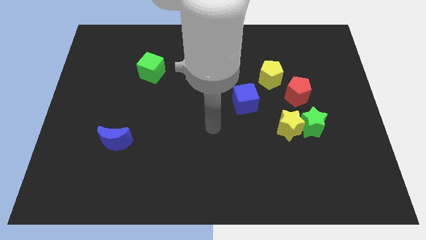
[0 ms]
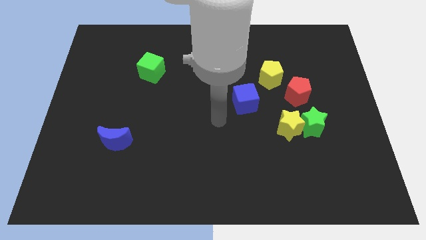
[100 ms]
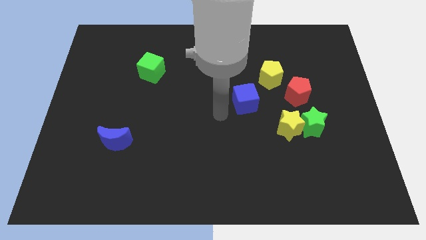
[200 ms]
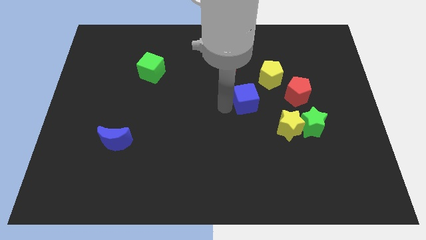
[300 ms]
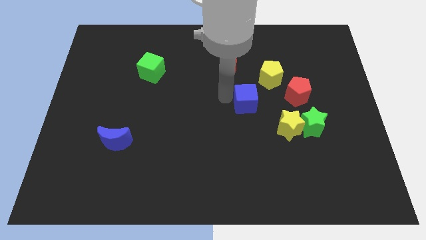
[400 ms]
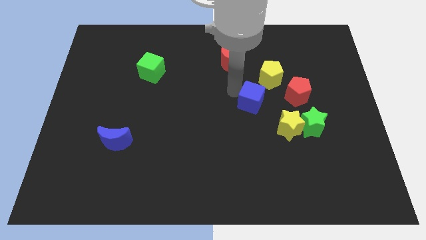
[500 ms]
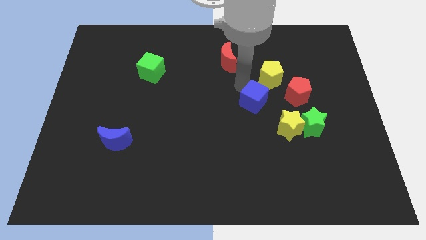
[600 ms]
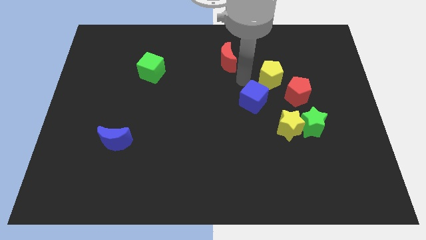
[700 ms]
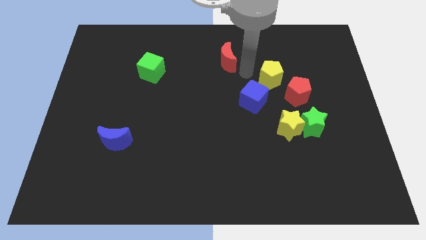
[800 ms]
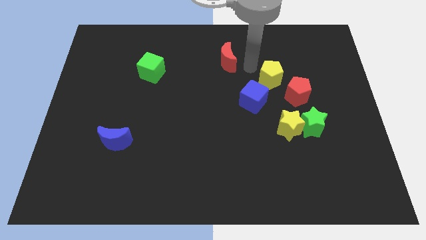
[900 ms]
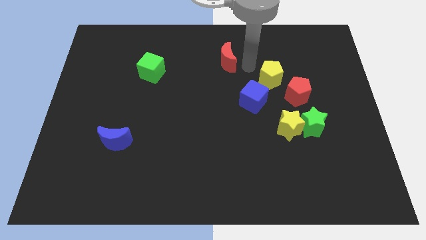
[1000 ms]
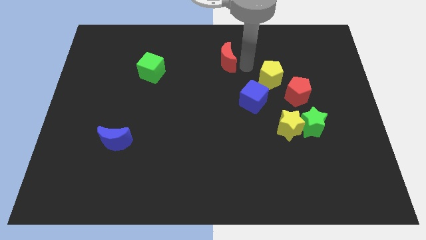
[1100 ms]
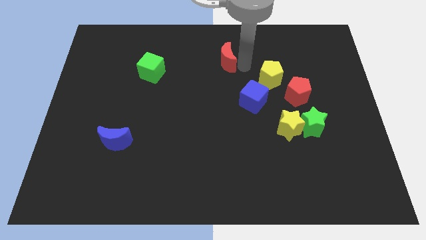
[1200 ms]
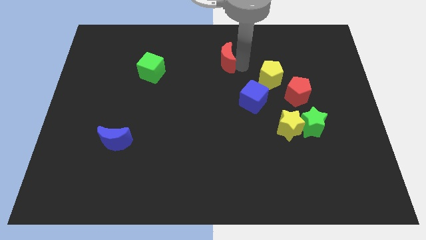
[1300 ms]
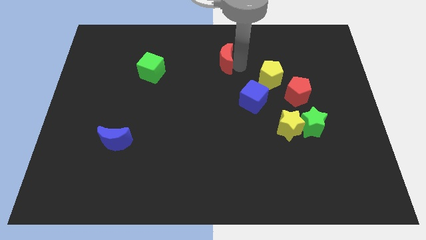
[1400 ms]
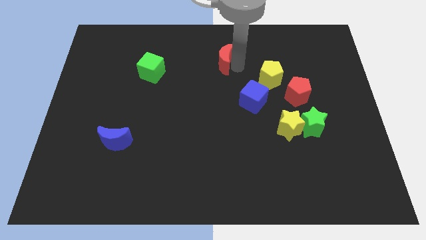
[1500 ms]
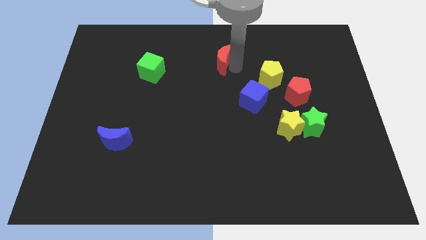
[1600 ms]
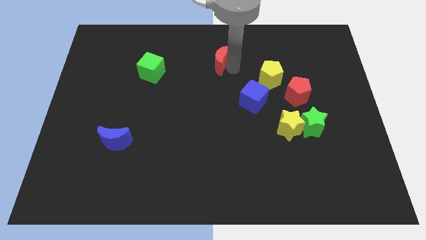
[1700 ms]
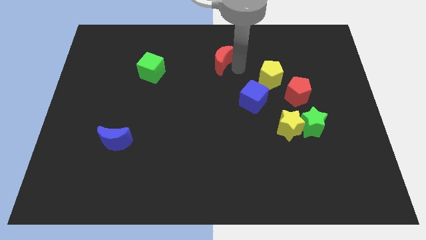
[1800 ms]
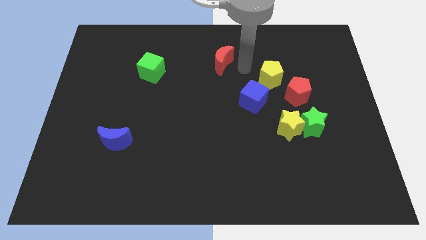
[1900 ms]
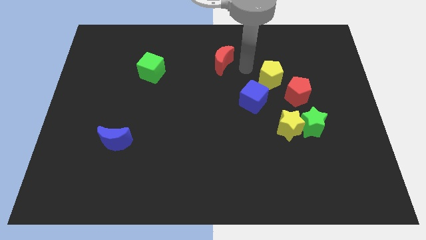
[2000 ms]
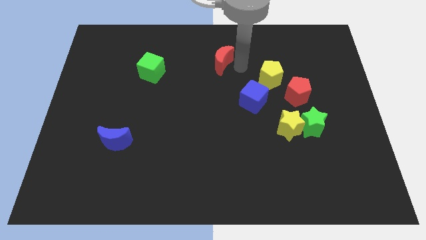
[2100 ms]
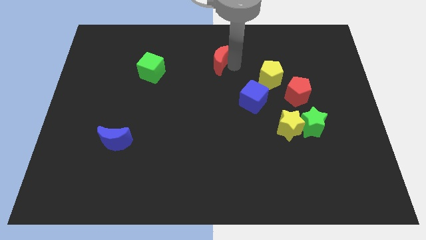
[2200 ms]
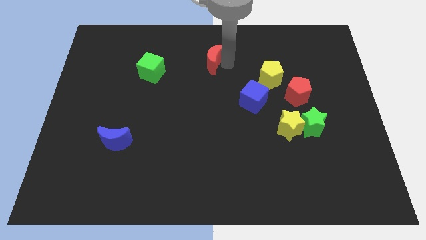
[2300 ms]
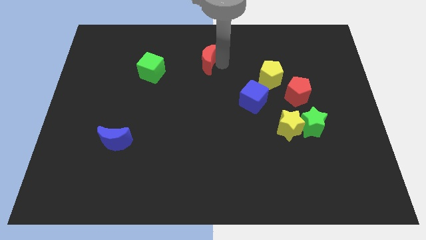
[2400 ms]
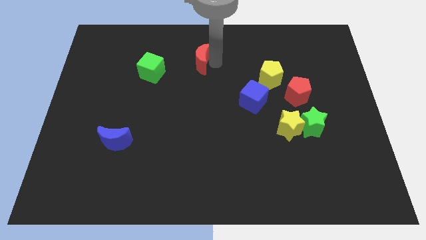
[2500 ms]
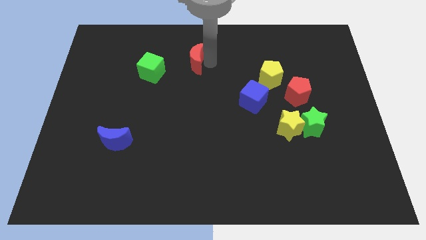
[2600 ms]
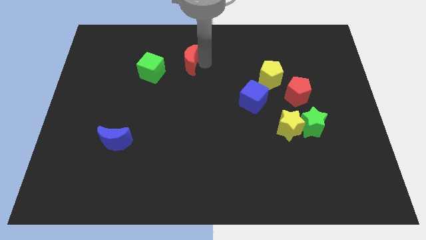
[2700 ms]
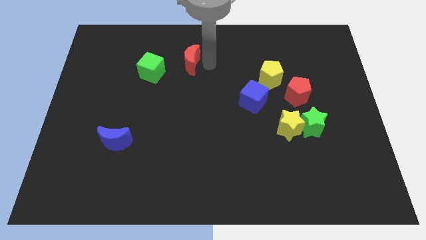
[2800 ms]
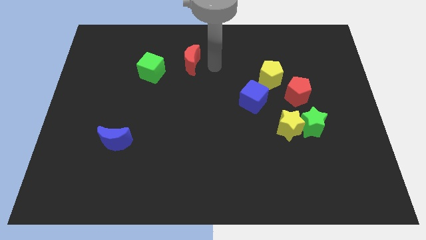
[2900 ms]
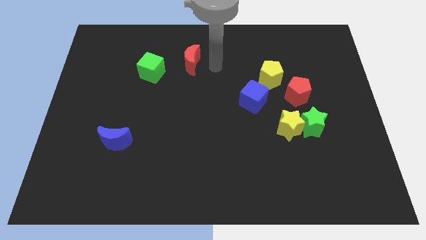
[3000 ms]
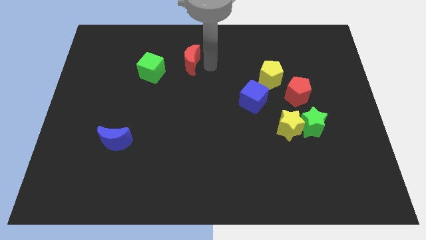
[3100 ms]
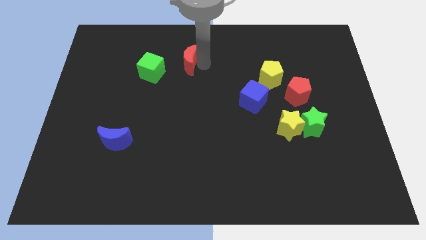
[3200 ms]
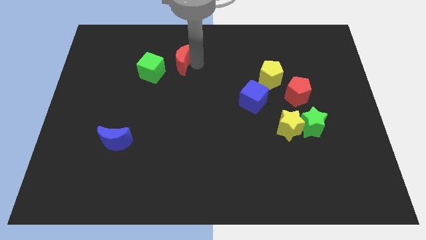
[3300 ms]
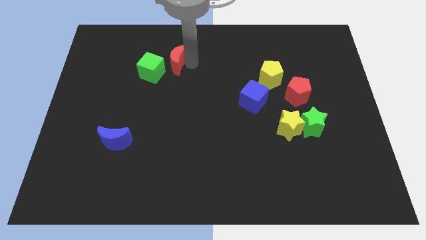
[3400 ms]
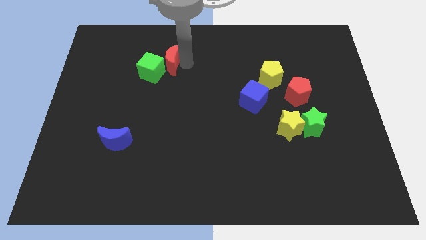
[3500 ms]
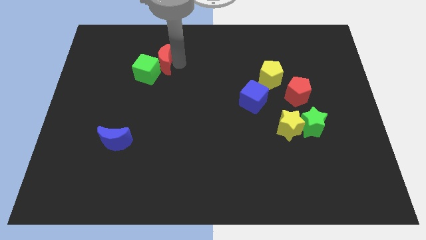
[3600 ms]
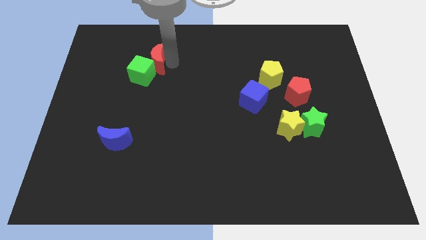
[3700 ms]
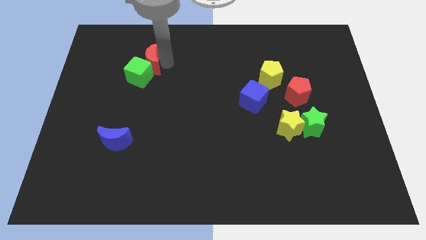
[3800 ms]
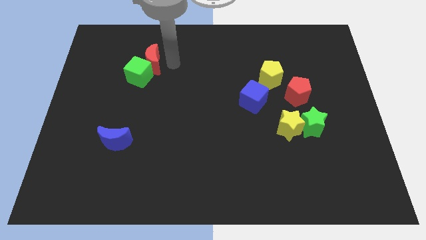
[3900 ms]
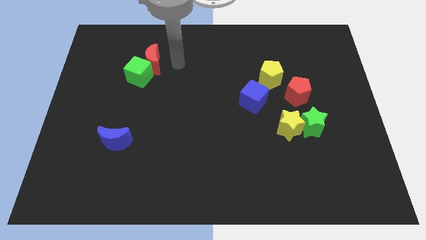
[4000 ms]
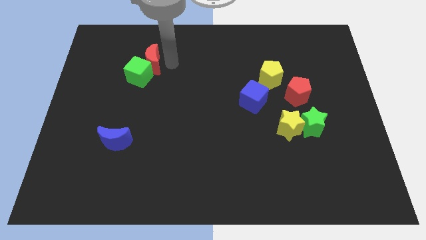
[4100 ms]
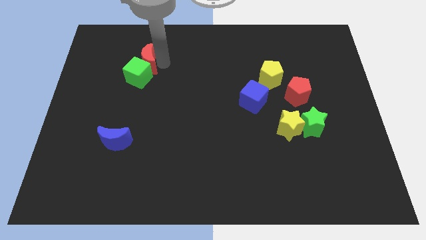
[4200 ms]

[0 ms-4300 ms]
move the red moon left

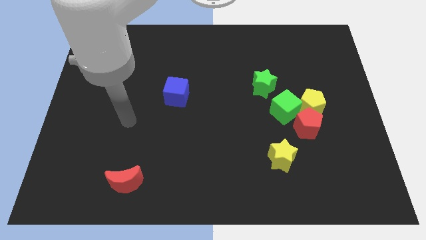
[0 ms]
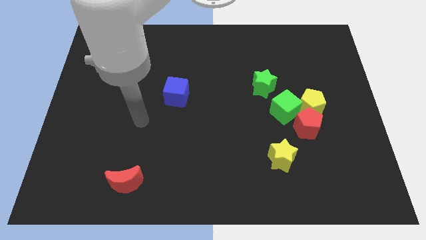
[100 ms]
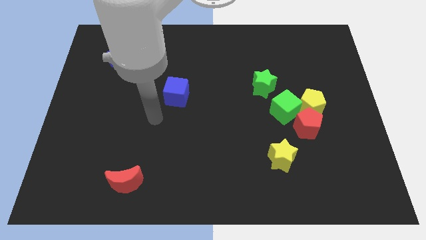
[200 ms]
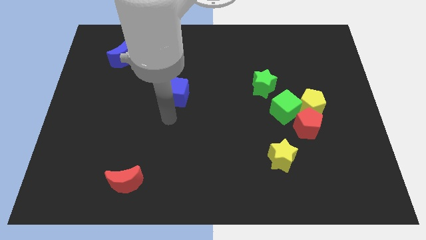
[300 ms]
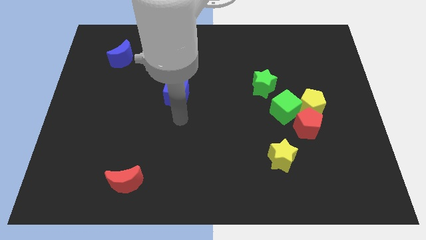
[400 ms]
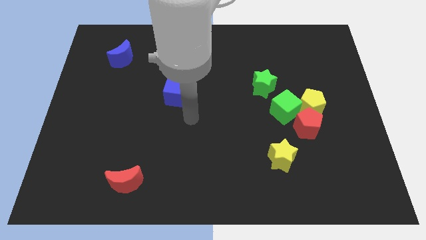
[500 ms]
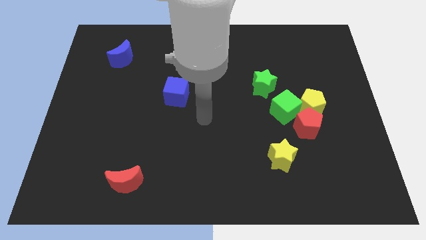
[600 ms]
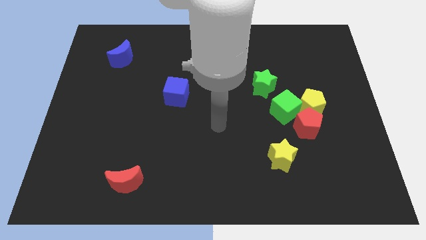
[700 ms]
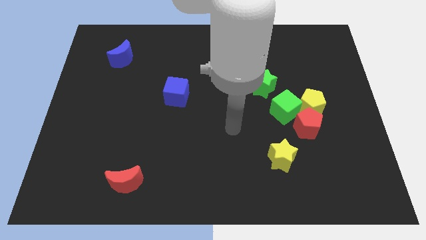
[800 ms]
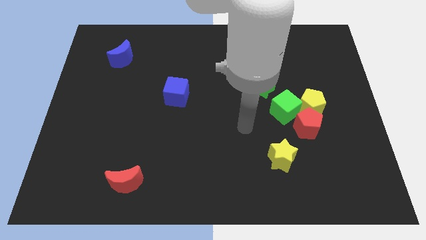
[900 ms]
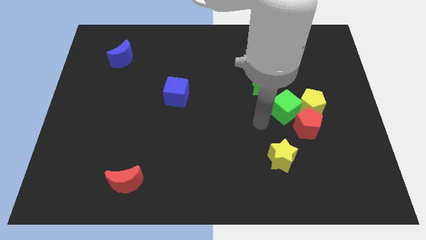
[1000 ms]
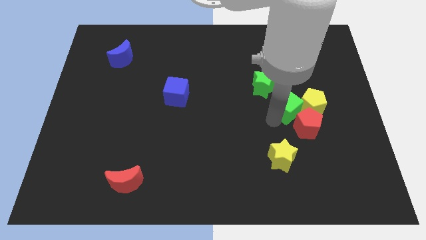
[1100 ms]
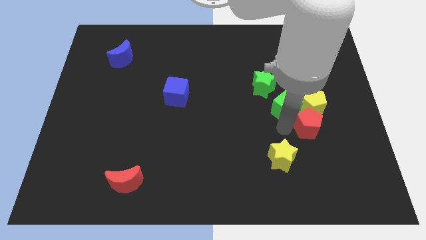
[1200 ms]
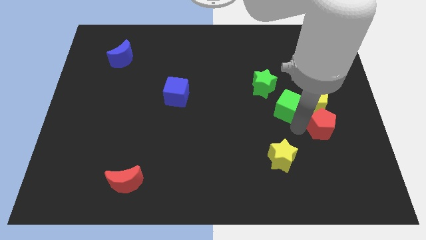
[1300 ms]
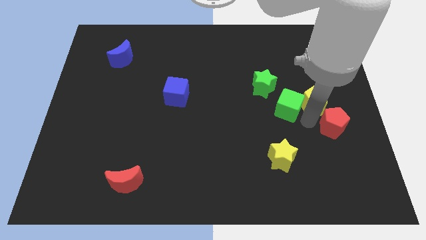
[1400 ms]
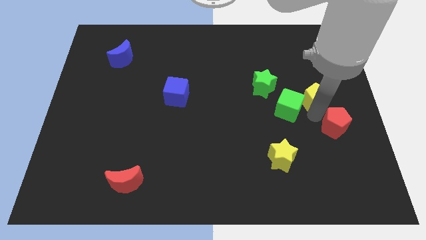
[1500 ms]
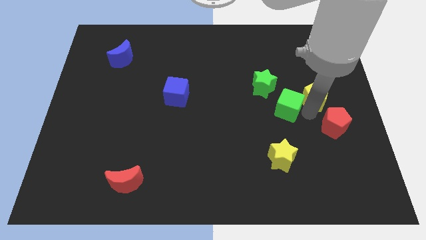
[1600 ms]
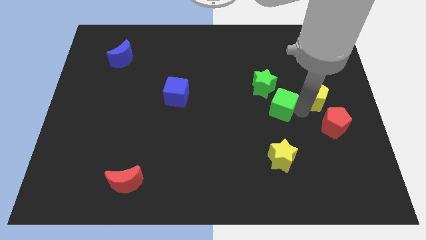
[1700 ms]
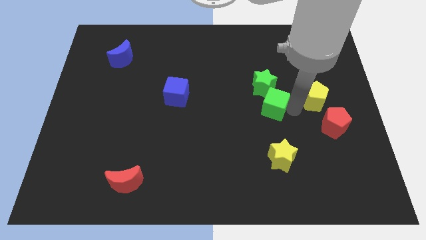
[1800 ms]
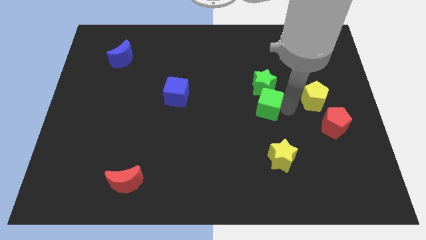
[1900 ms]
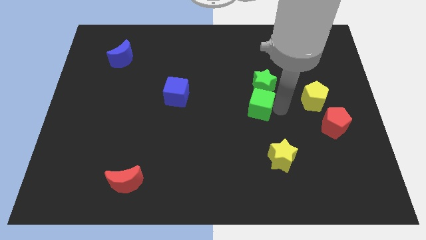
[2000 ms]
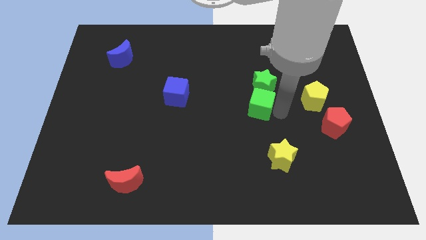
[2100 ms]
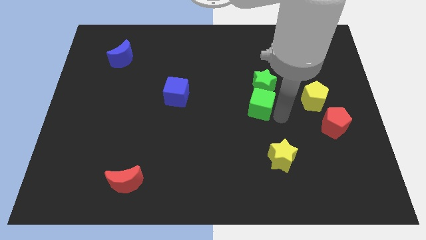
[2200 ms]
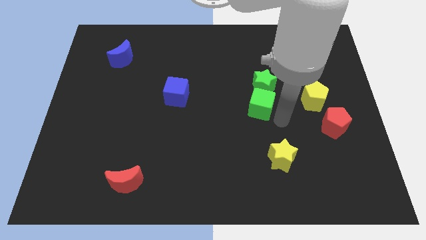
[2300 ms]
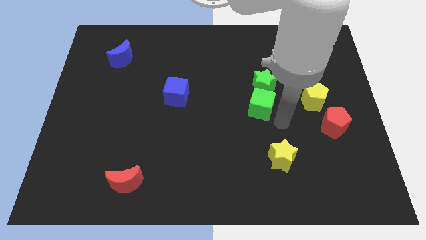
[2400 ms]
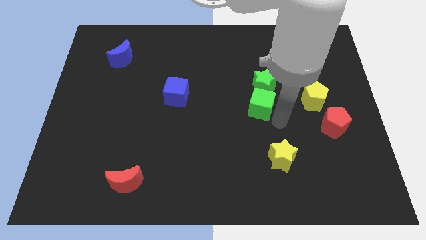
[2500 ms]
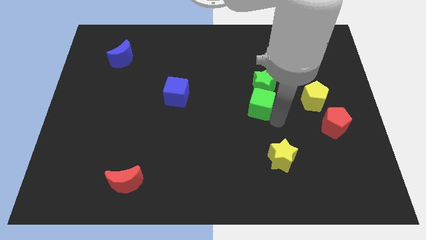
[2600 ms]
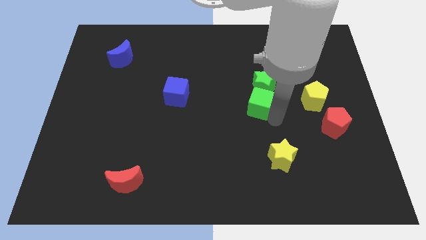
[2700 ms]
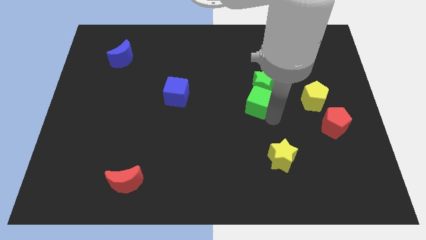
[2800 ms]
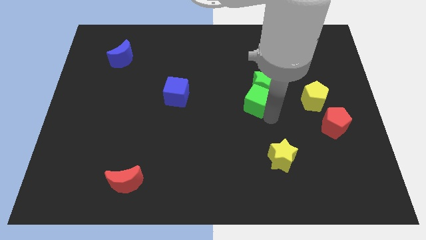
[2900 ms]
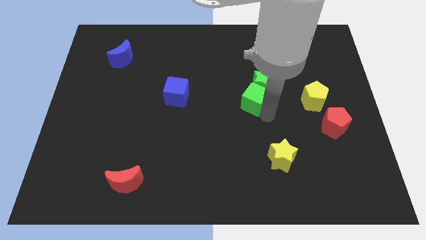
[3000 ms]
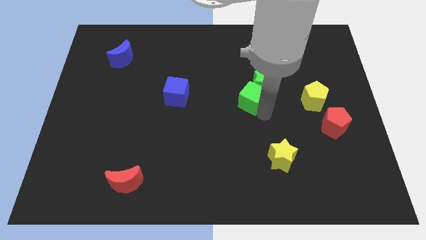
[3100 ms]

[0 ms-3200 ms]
move the green cube somewhat up and then left
